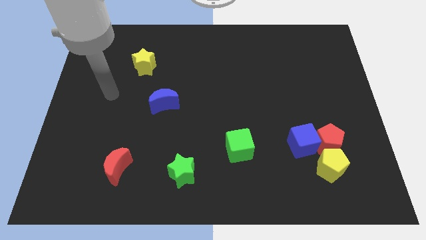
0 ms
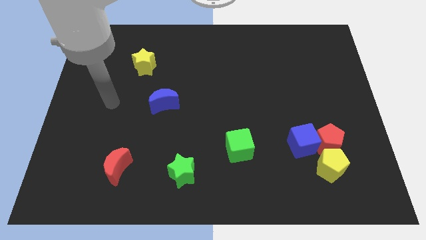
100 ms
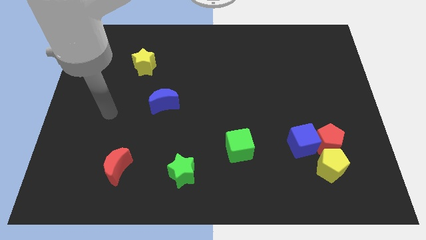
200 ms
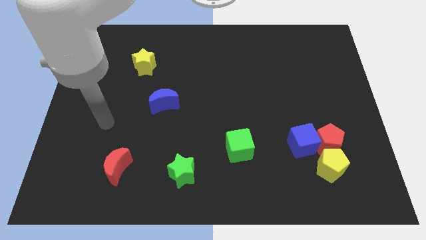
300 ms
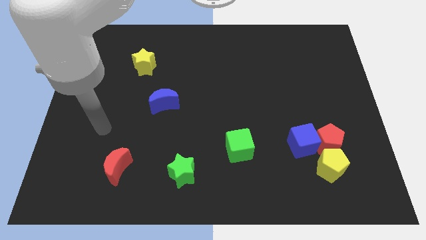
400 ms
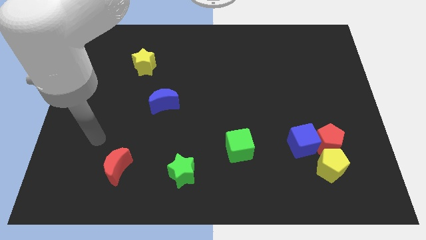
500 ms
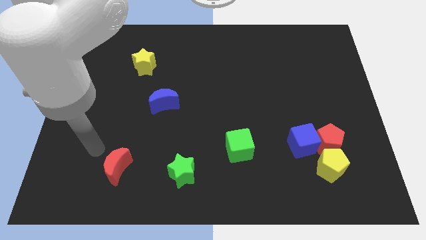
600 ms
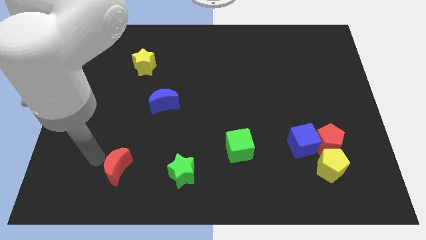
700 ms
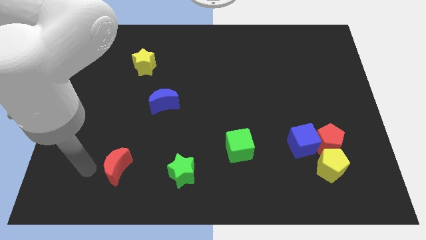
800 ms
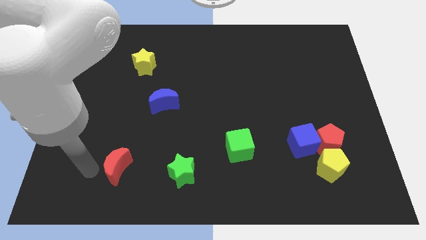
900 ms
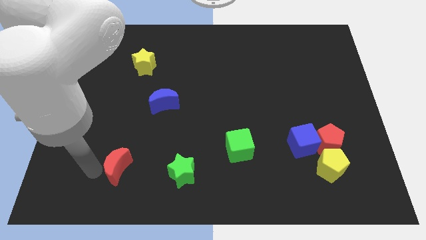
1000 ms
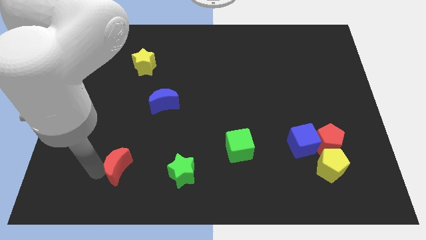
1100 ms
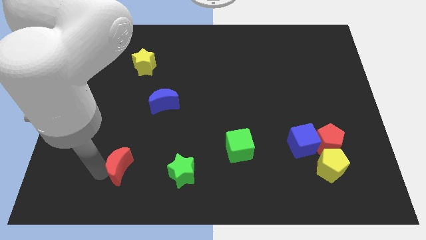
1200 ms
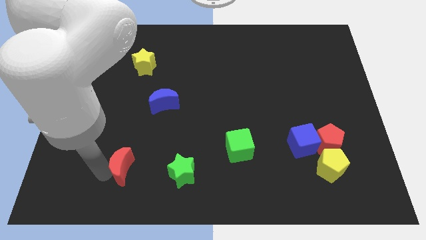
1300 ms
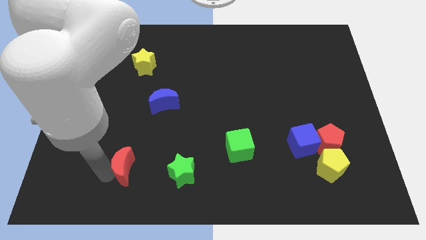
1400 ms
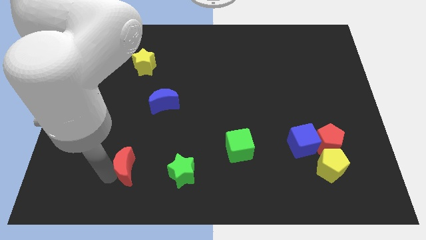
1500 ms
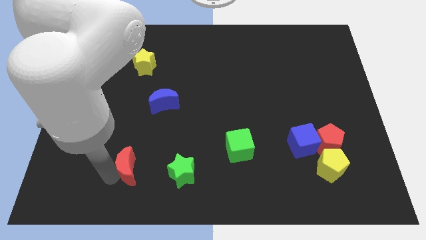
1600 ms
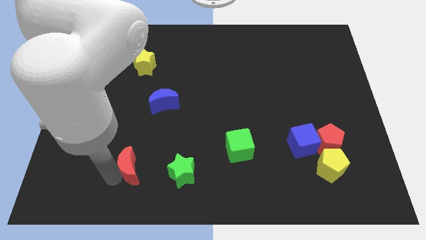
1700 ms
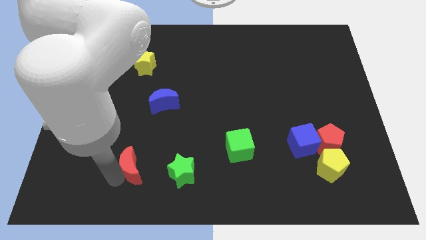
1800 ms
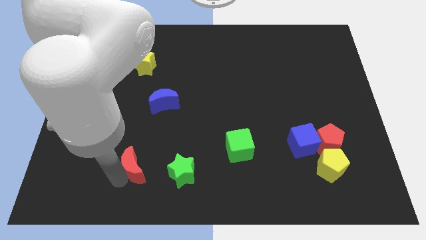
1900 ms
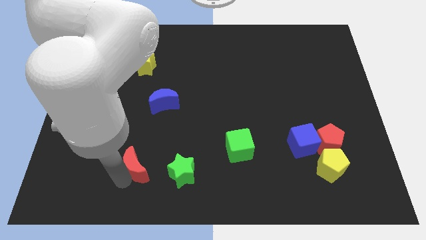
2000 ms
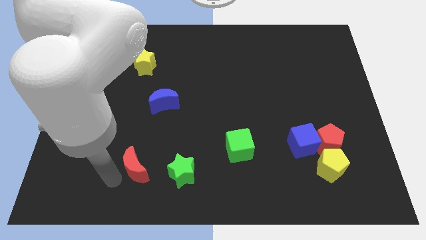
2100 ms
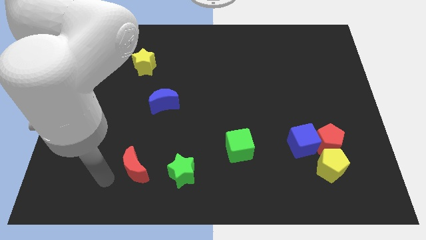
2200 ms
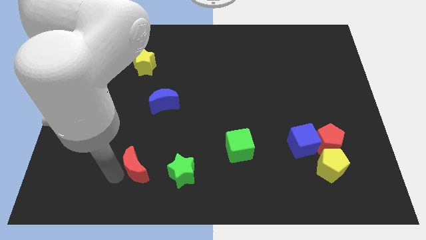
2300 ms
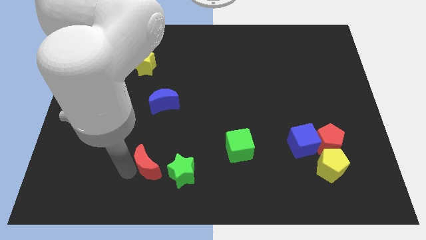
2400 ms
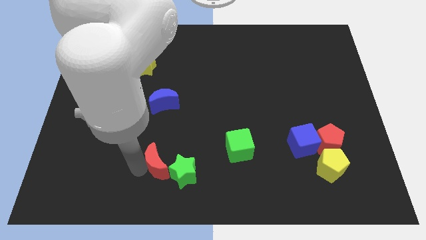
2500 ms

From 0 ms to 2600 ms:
push the red moon right a bit

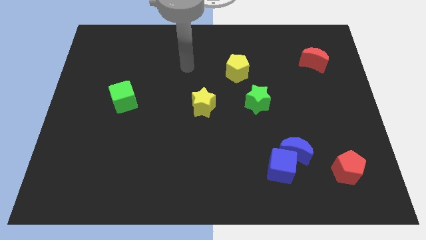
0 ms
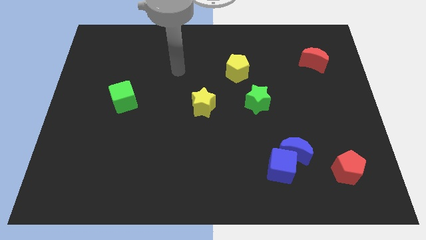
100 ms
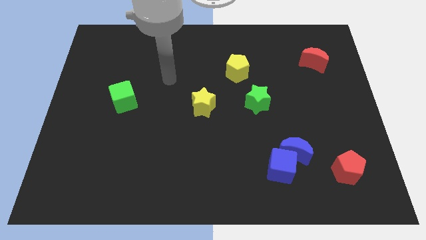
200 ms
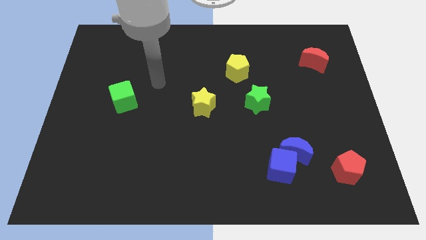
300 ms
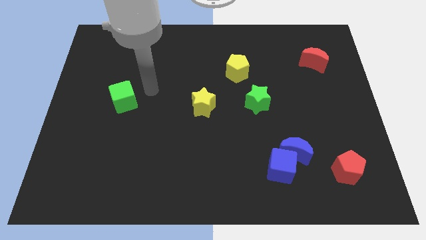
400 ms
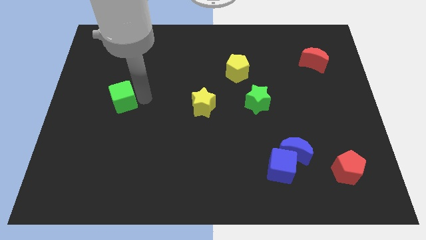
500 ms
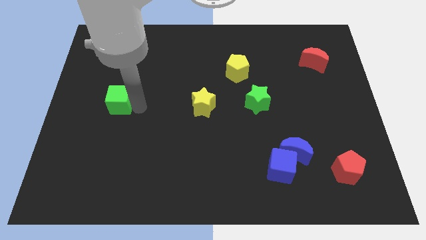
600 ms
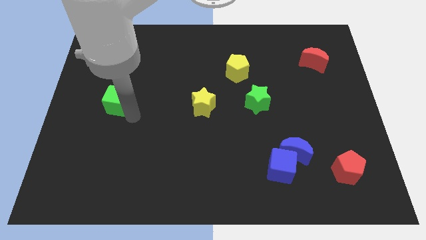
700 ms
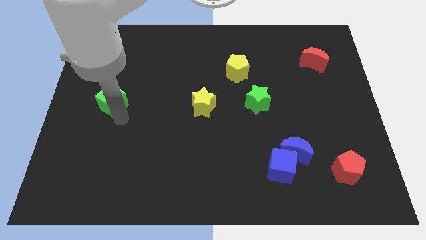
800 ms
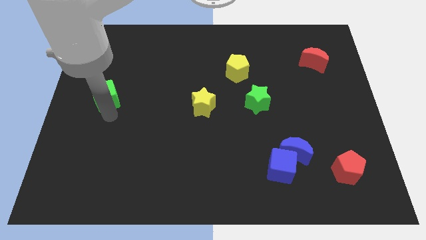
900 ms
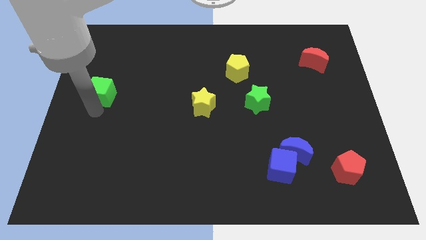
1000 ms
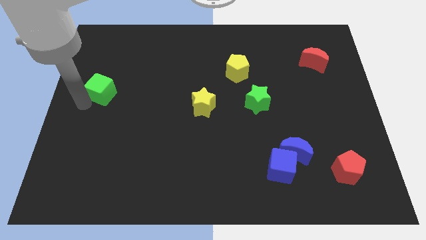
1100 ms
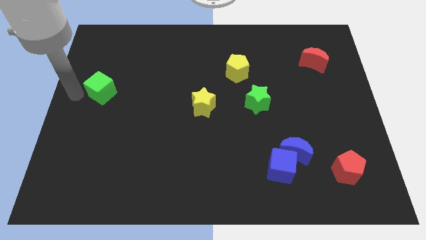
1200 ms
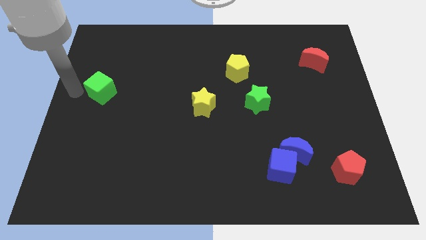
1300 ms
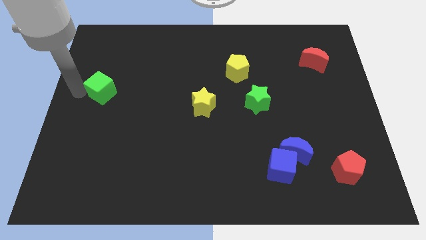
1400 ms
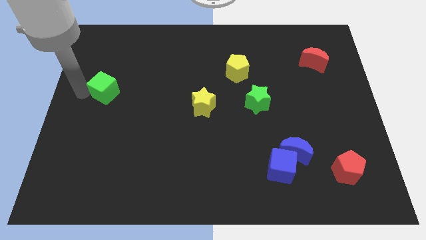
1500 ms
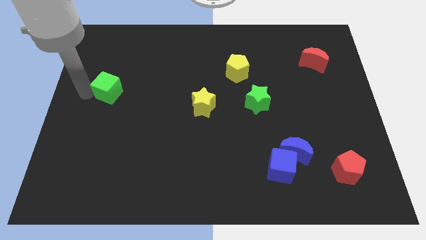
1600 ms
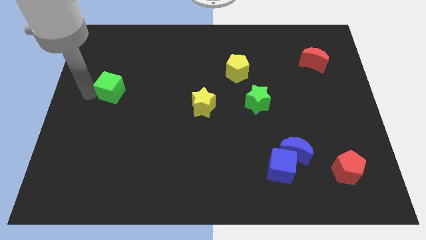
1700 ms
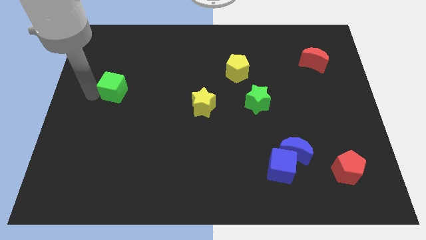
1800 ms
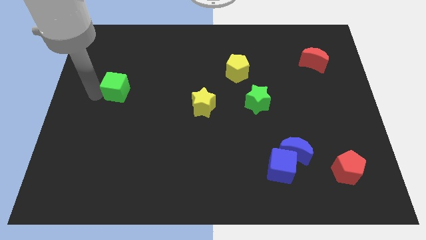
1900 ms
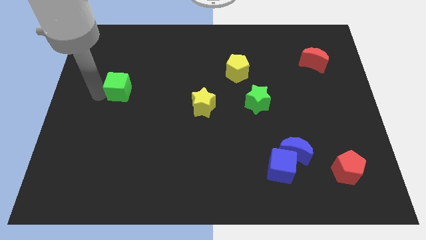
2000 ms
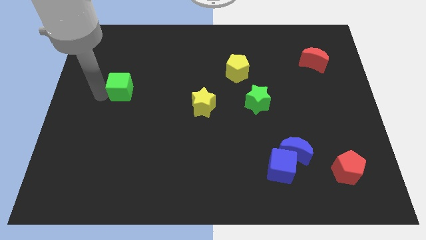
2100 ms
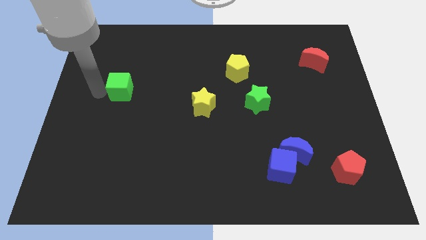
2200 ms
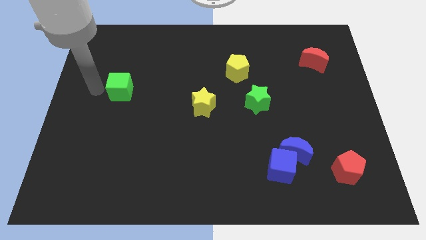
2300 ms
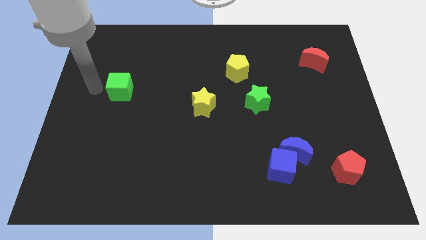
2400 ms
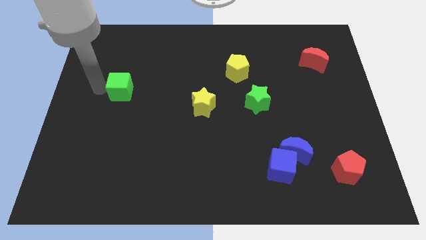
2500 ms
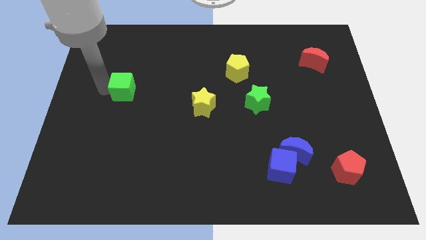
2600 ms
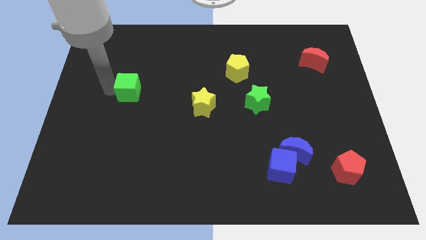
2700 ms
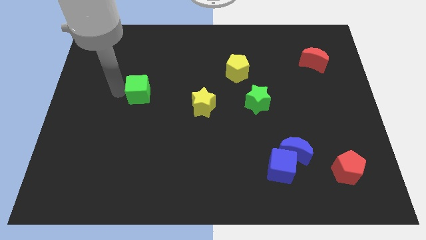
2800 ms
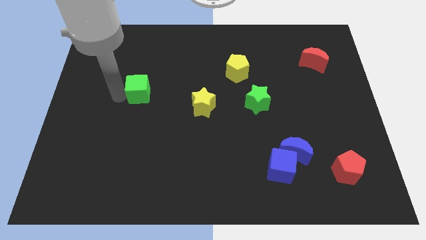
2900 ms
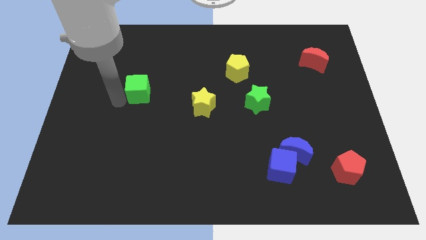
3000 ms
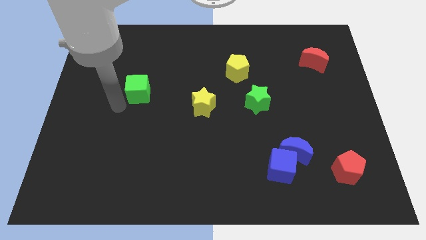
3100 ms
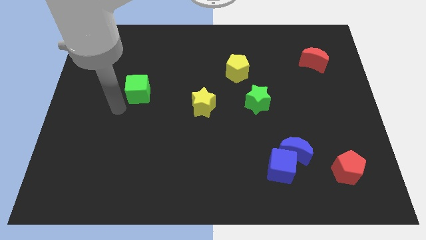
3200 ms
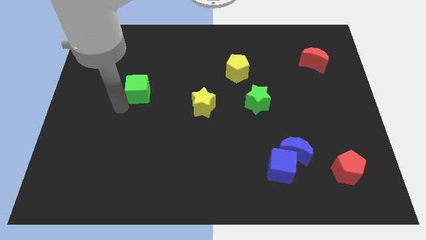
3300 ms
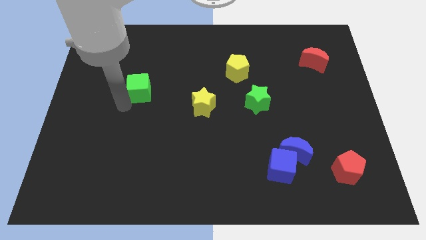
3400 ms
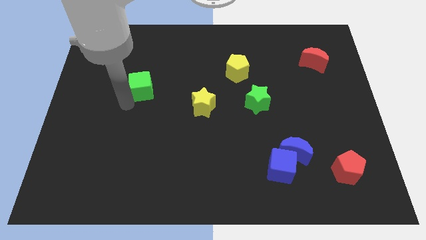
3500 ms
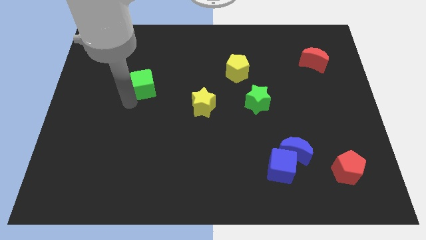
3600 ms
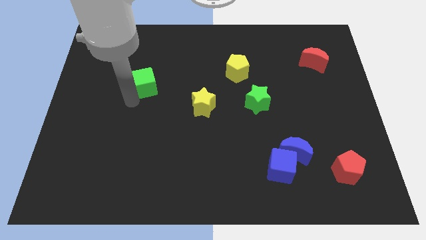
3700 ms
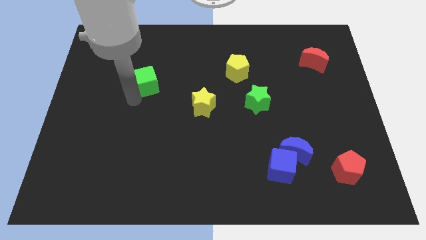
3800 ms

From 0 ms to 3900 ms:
move the green cube a little bit up and right diagonally

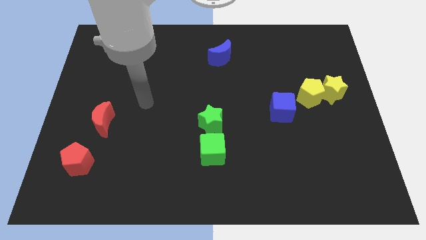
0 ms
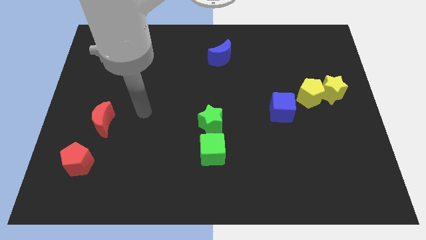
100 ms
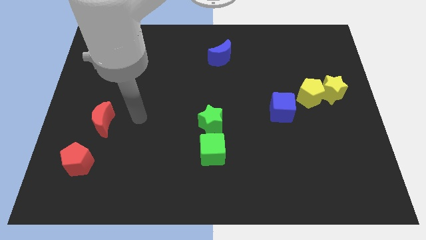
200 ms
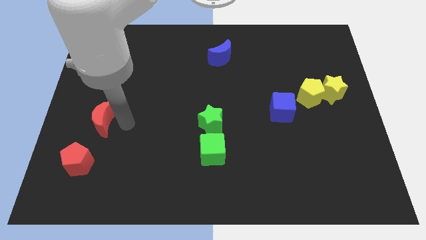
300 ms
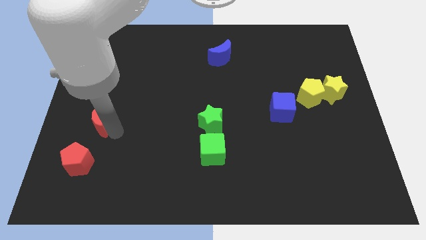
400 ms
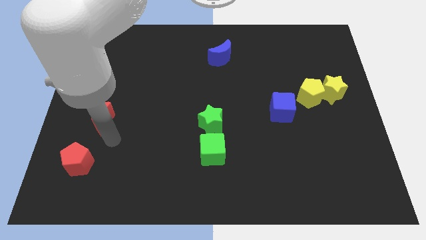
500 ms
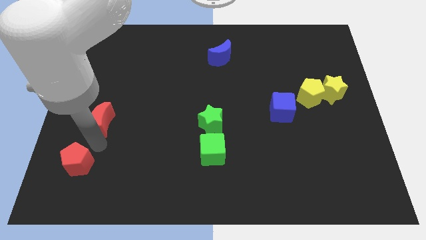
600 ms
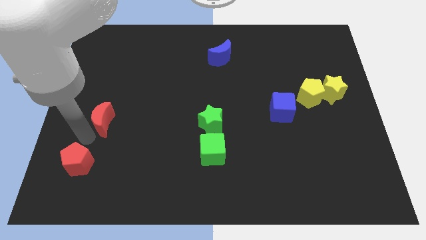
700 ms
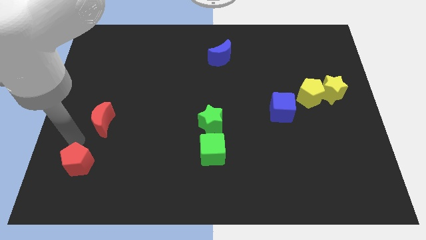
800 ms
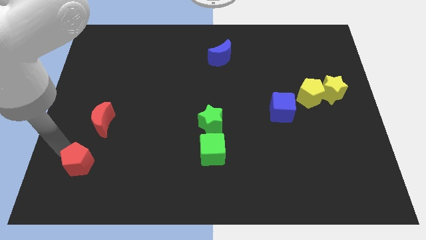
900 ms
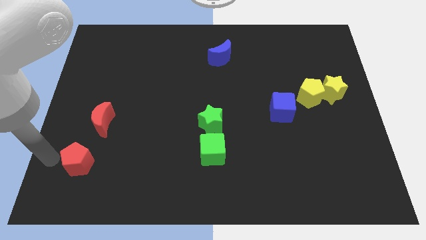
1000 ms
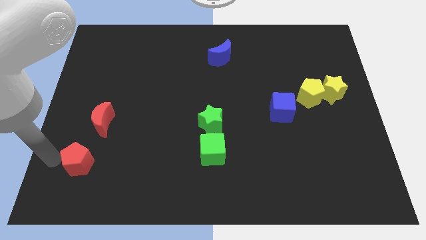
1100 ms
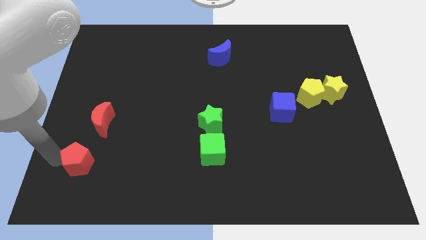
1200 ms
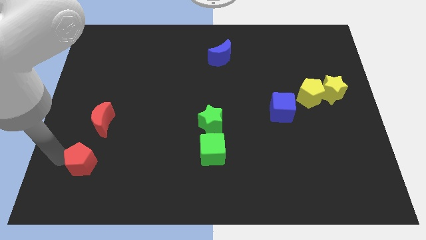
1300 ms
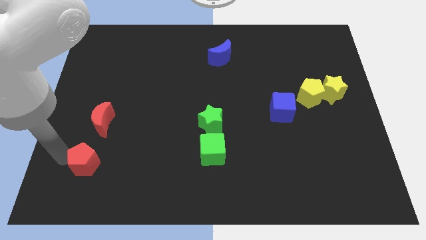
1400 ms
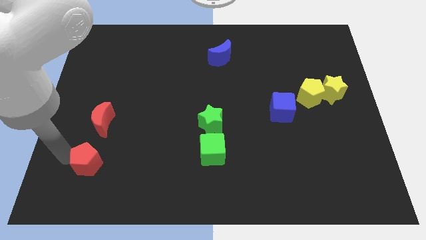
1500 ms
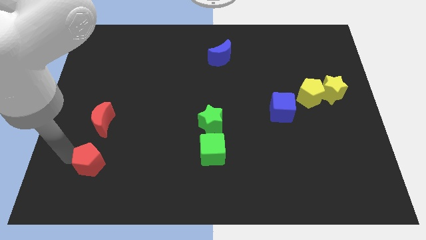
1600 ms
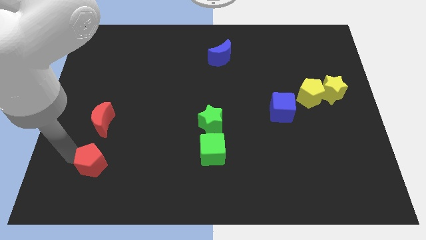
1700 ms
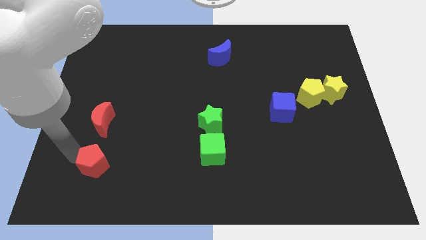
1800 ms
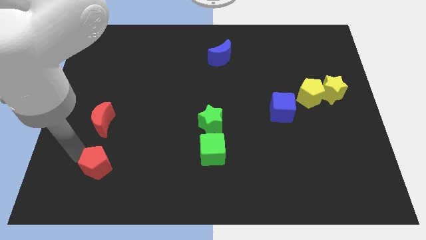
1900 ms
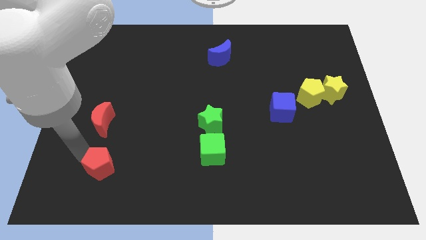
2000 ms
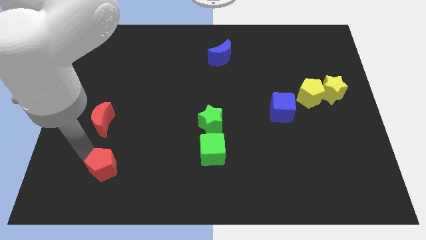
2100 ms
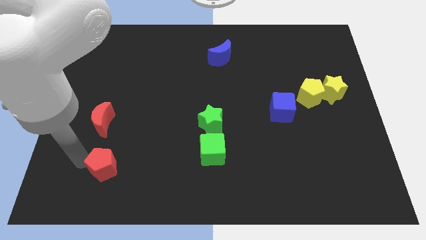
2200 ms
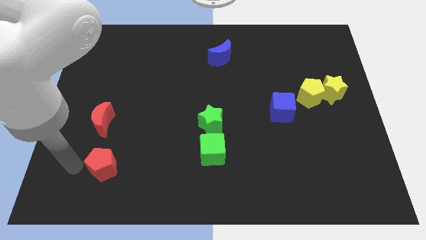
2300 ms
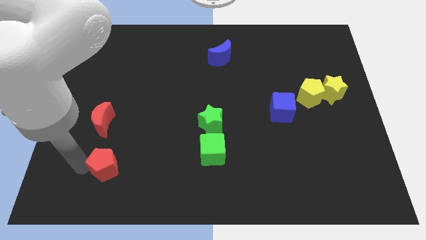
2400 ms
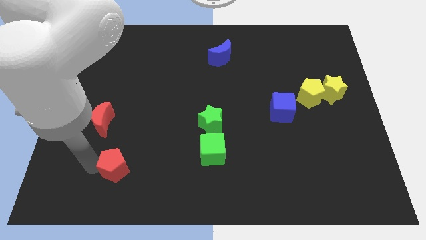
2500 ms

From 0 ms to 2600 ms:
slightly push the red pentagon to the right
